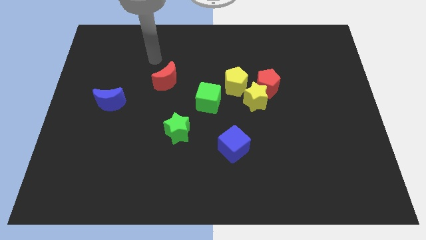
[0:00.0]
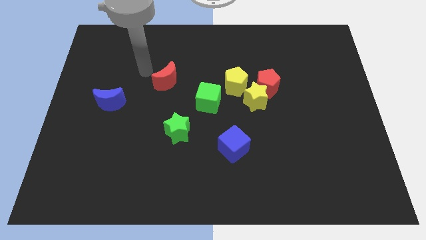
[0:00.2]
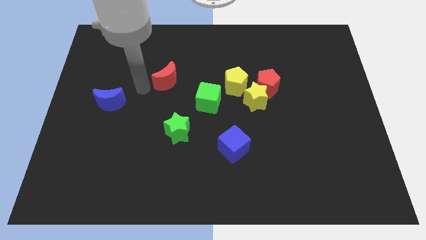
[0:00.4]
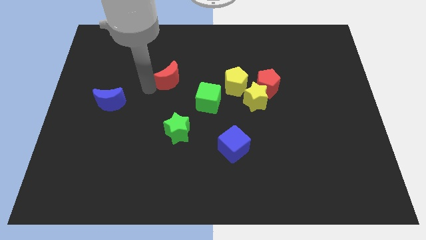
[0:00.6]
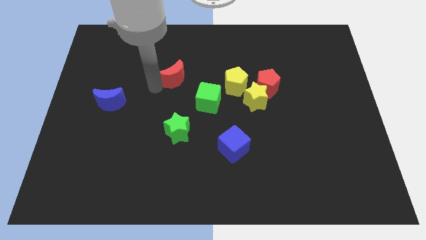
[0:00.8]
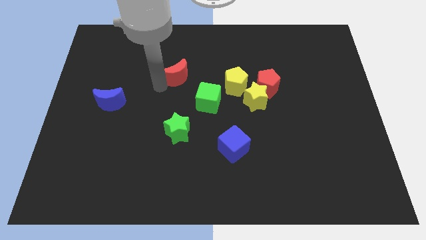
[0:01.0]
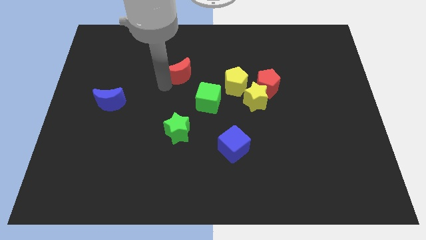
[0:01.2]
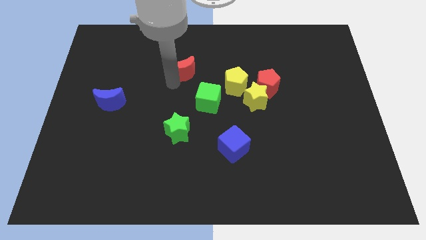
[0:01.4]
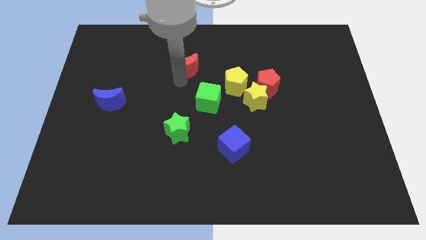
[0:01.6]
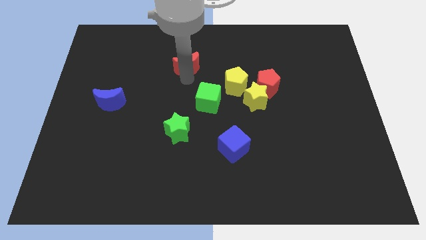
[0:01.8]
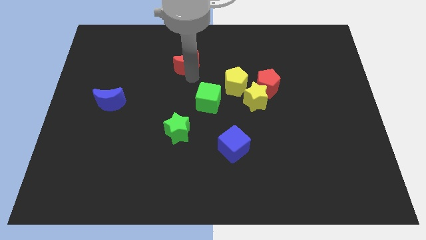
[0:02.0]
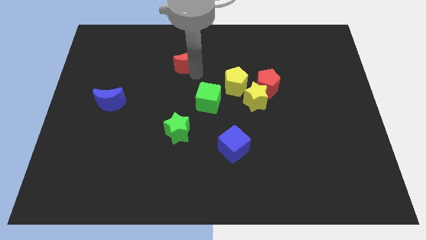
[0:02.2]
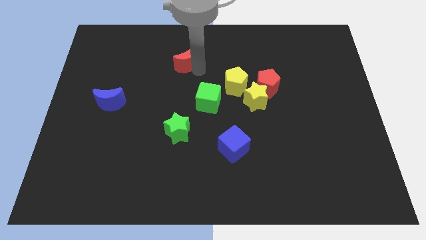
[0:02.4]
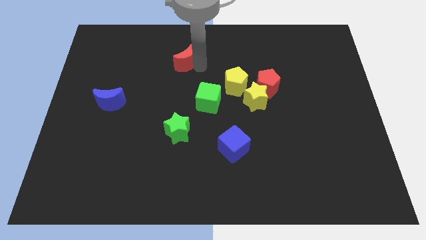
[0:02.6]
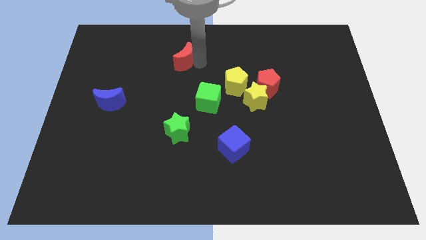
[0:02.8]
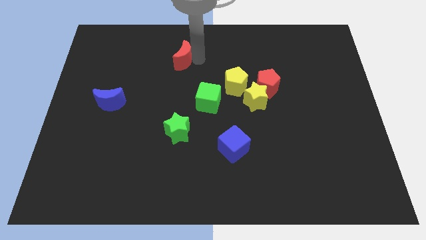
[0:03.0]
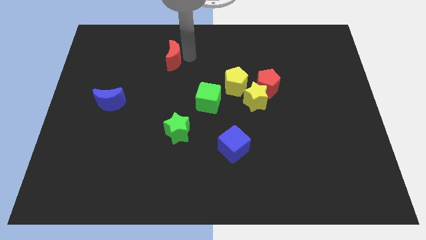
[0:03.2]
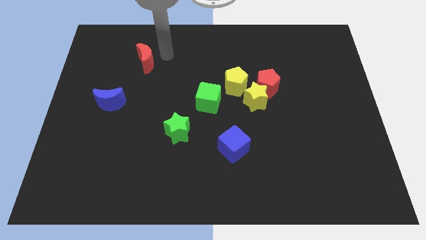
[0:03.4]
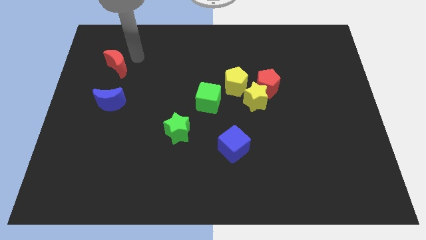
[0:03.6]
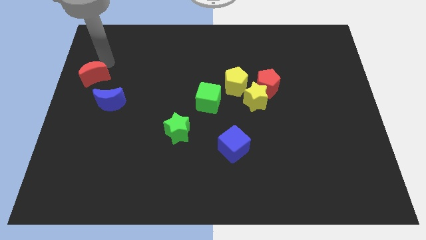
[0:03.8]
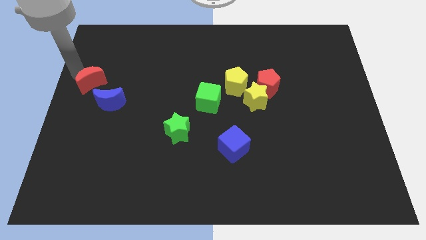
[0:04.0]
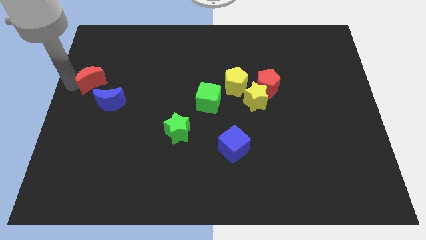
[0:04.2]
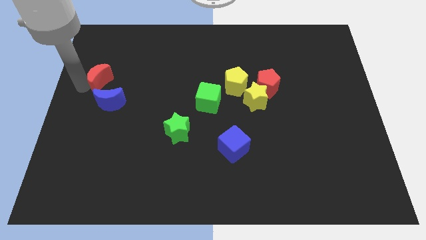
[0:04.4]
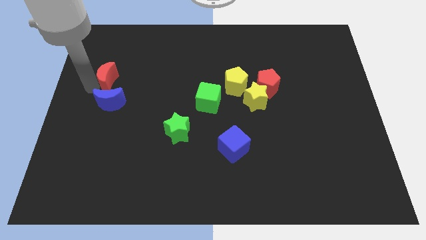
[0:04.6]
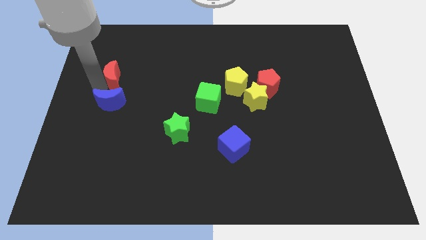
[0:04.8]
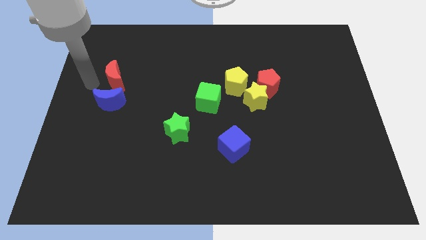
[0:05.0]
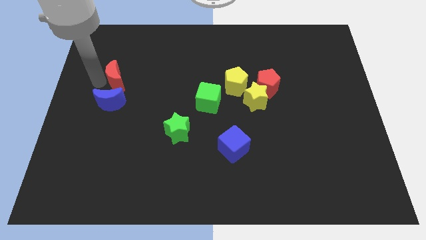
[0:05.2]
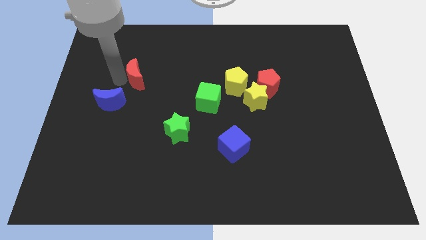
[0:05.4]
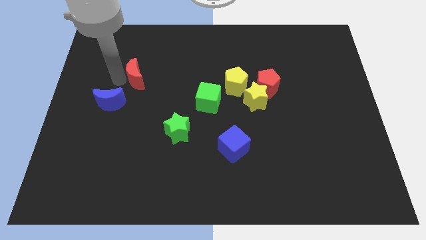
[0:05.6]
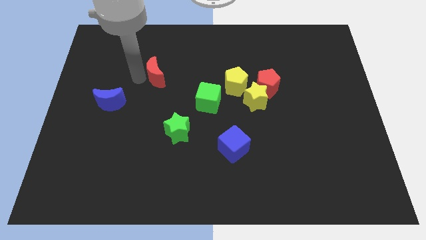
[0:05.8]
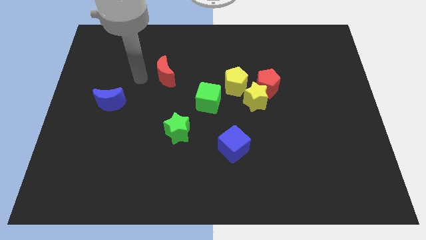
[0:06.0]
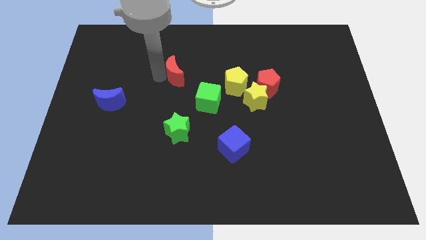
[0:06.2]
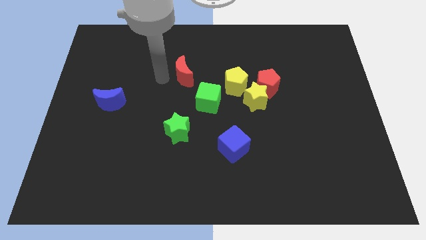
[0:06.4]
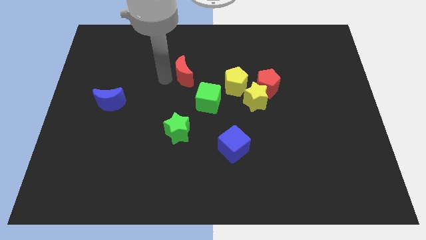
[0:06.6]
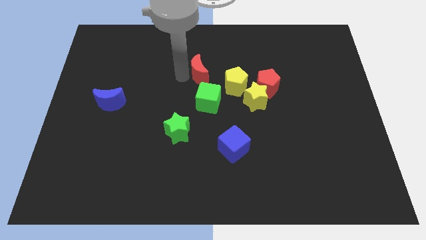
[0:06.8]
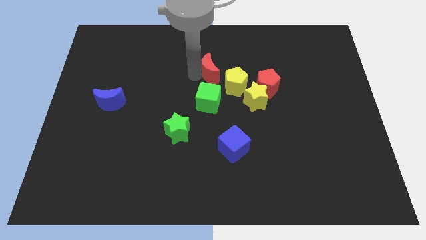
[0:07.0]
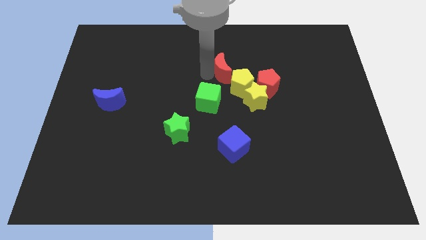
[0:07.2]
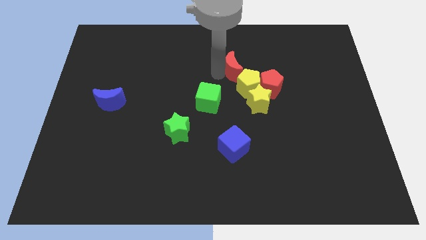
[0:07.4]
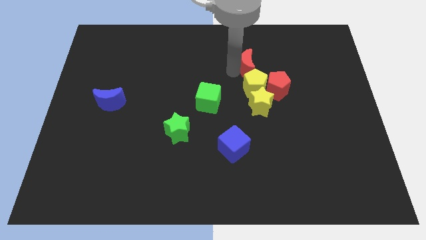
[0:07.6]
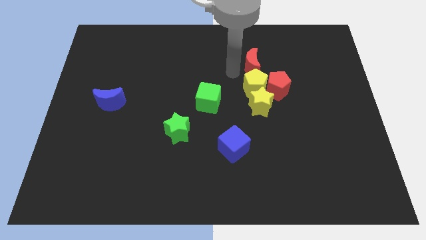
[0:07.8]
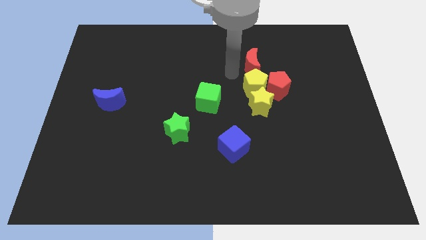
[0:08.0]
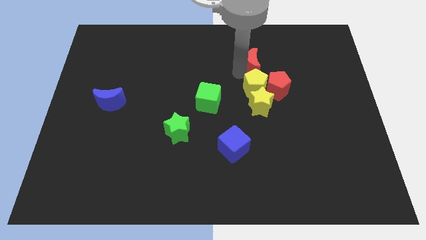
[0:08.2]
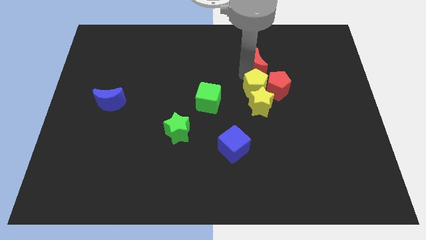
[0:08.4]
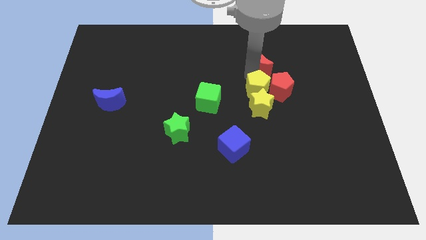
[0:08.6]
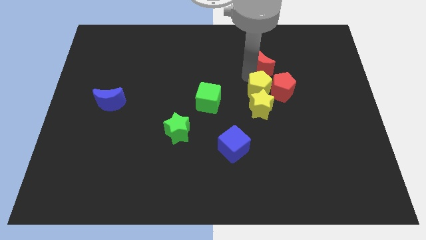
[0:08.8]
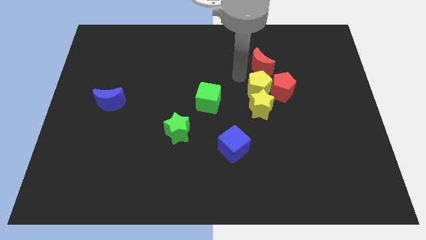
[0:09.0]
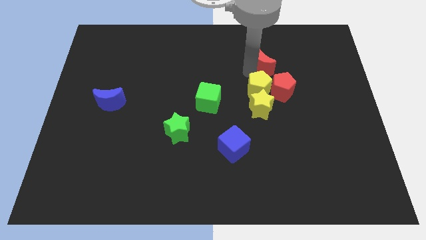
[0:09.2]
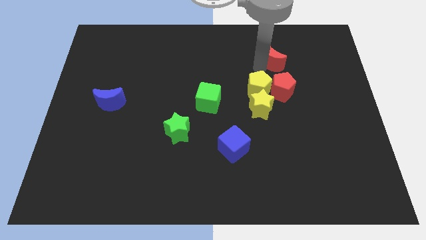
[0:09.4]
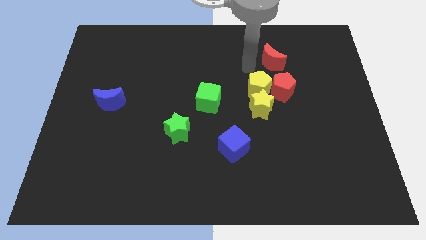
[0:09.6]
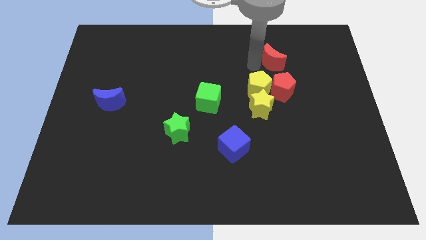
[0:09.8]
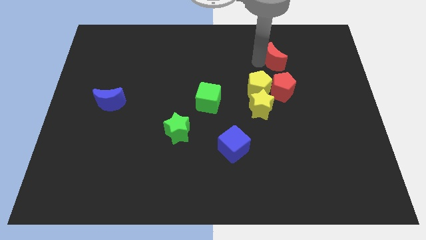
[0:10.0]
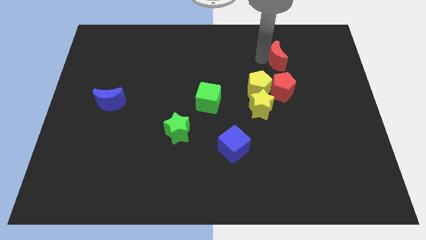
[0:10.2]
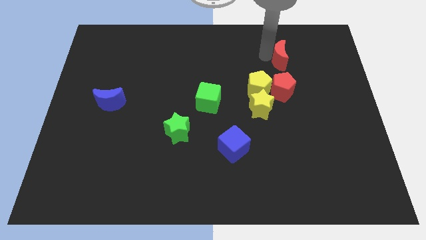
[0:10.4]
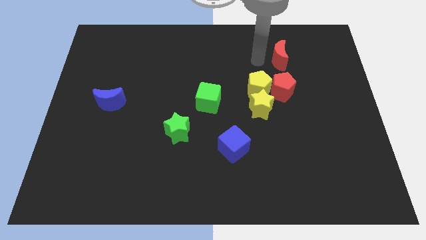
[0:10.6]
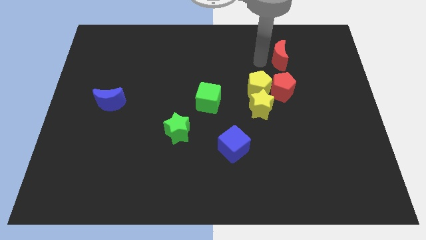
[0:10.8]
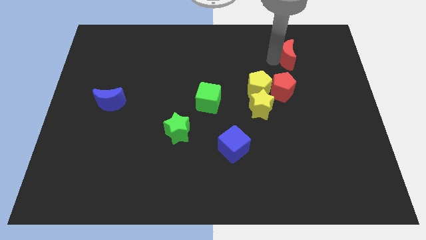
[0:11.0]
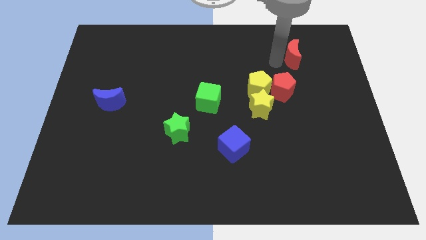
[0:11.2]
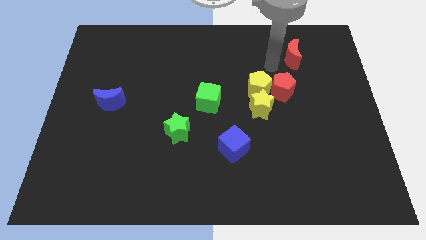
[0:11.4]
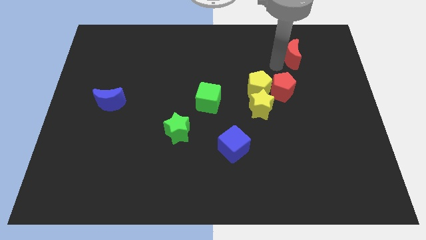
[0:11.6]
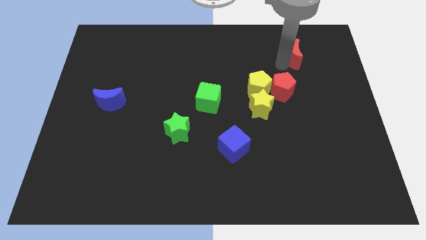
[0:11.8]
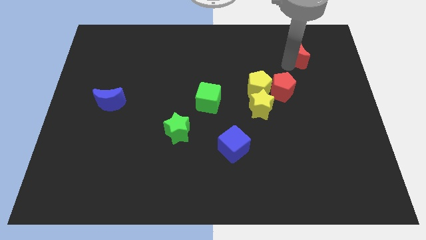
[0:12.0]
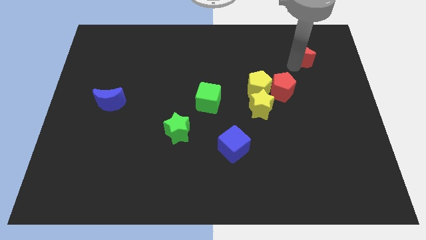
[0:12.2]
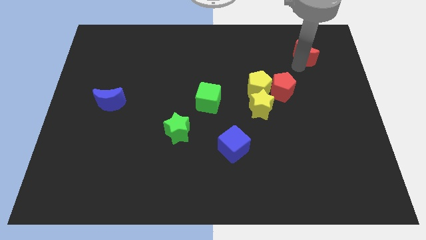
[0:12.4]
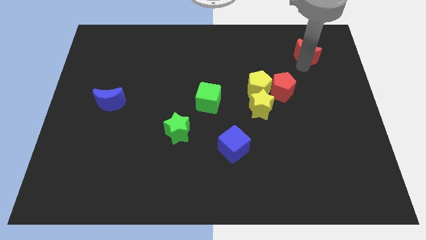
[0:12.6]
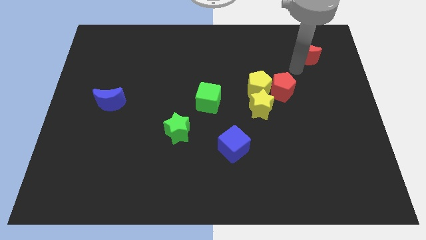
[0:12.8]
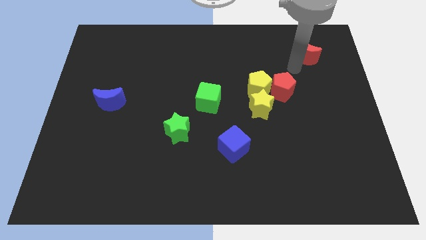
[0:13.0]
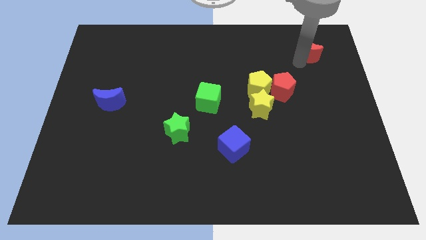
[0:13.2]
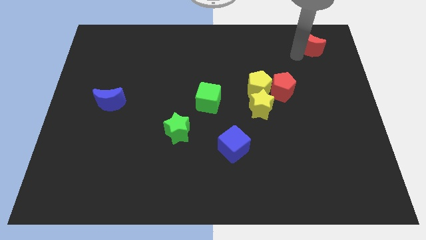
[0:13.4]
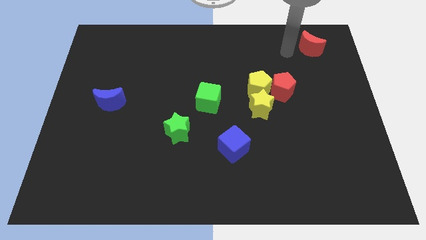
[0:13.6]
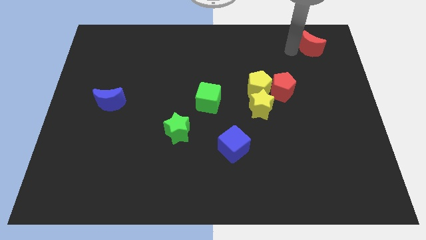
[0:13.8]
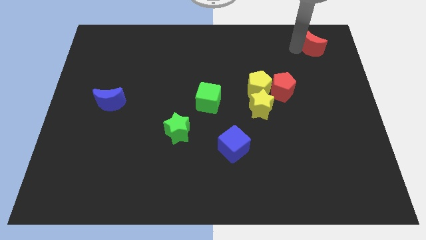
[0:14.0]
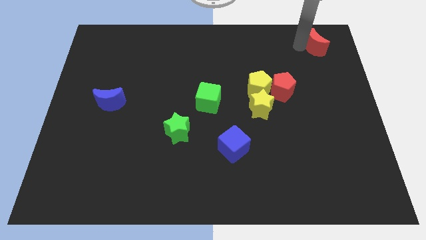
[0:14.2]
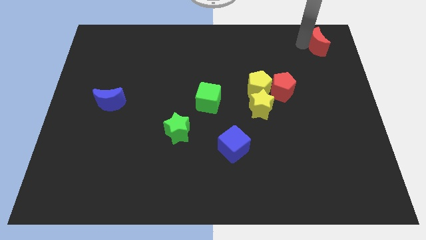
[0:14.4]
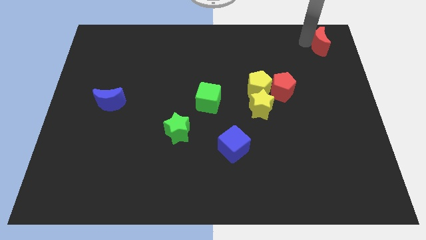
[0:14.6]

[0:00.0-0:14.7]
move the red moon to the top right
